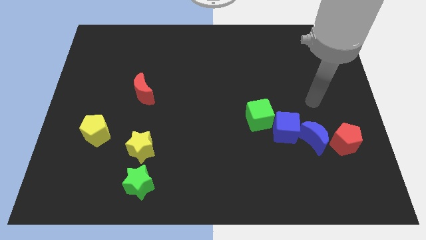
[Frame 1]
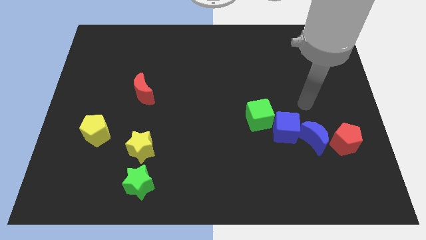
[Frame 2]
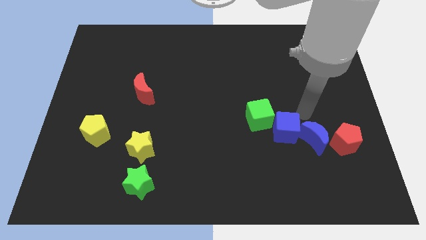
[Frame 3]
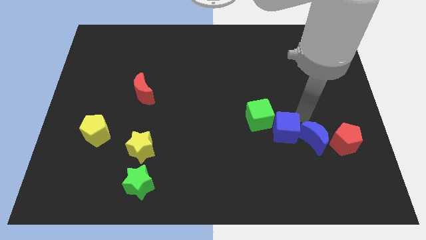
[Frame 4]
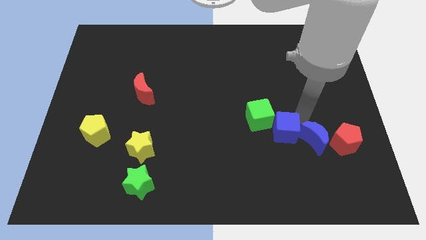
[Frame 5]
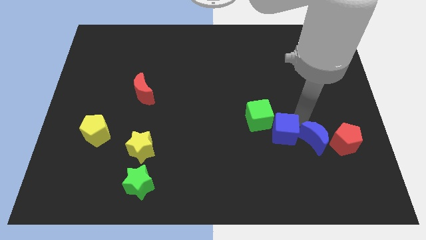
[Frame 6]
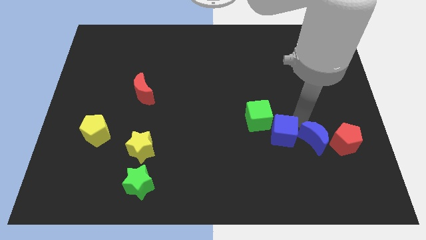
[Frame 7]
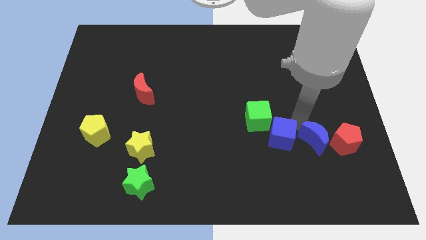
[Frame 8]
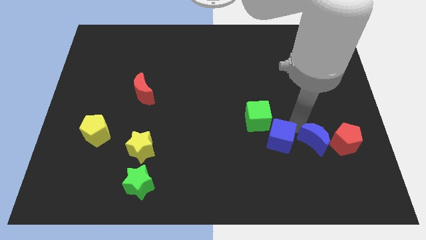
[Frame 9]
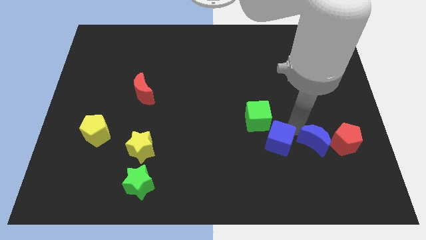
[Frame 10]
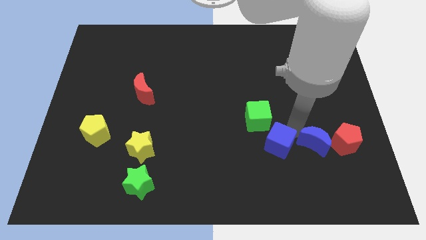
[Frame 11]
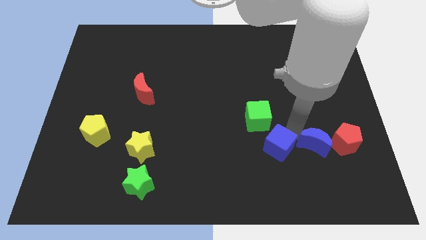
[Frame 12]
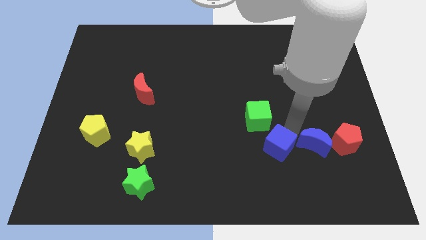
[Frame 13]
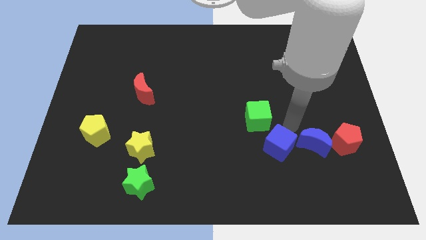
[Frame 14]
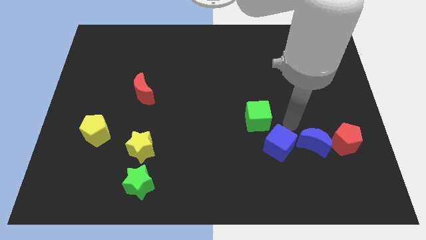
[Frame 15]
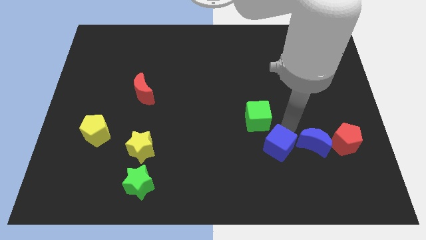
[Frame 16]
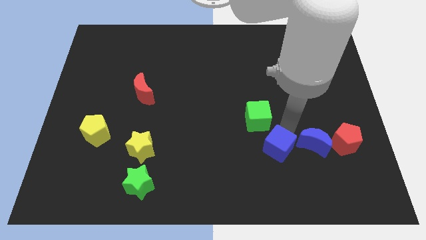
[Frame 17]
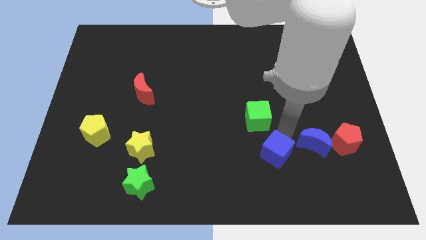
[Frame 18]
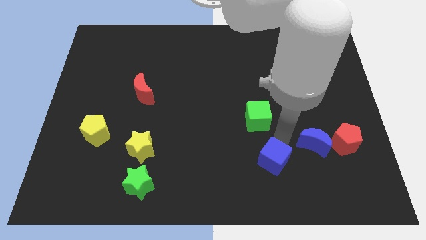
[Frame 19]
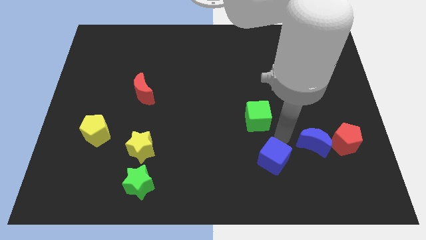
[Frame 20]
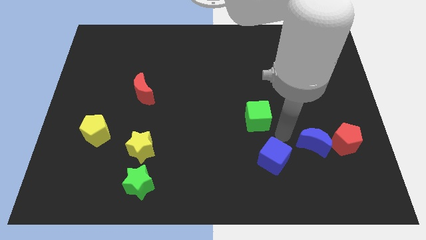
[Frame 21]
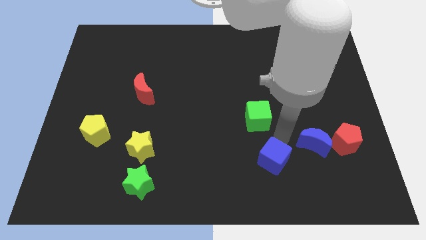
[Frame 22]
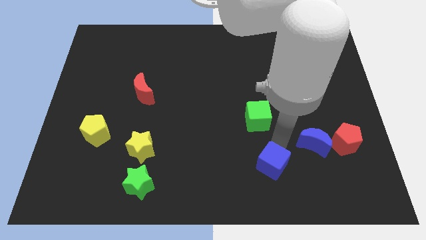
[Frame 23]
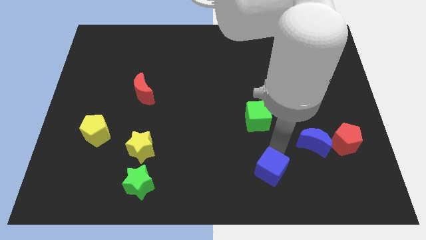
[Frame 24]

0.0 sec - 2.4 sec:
move the blue cube away from the blue moon and green cube

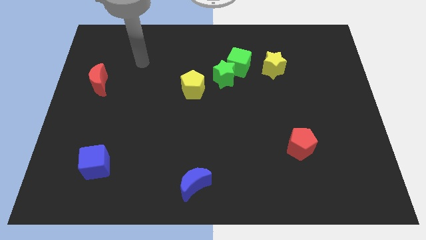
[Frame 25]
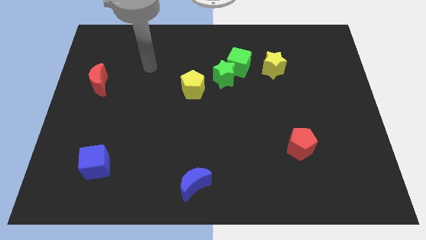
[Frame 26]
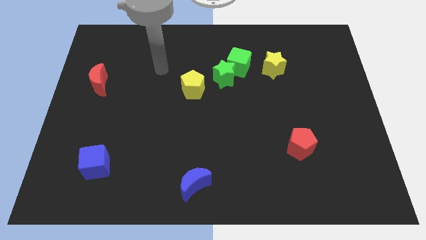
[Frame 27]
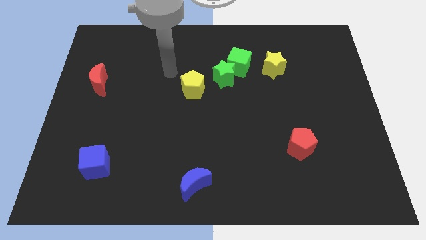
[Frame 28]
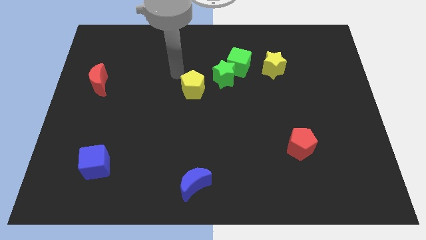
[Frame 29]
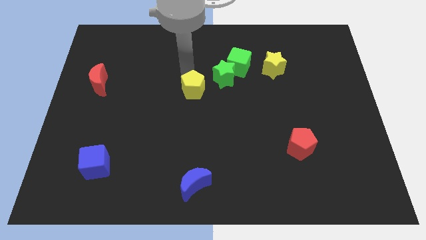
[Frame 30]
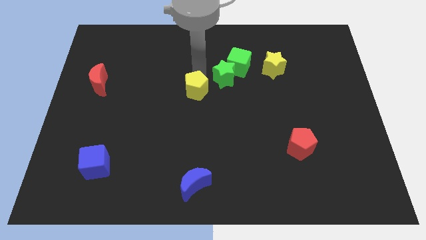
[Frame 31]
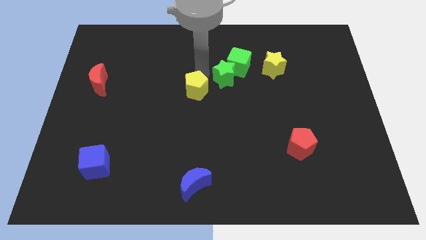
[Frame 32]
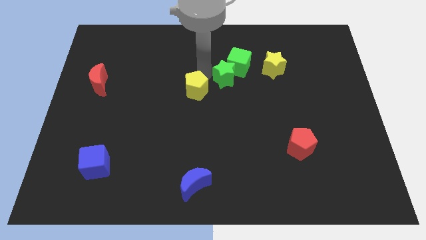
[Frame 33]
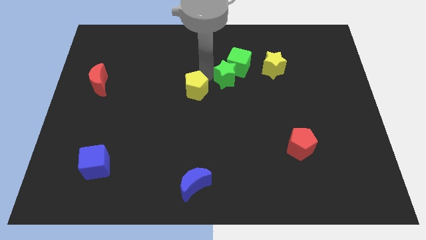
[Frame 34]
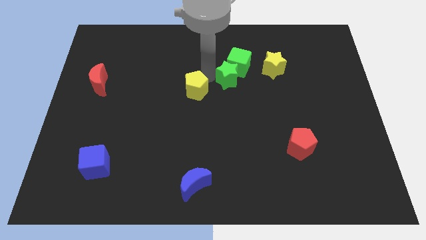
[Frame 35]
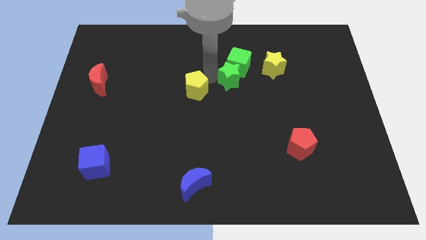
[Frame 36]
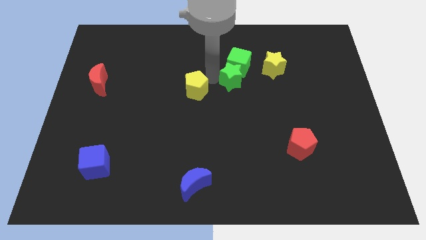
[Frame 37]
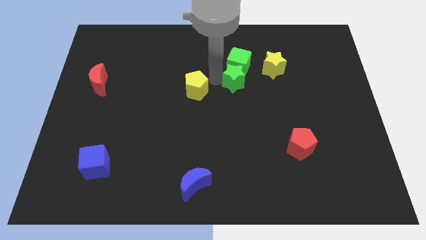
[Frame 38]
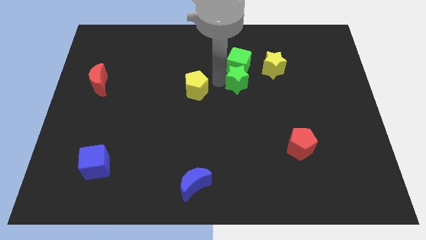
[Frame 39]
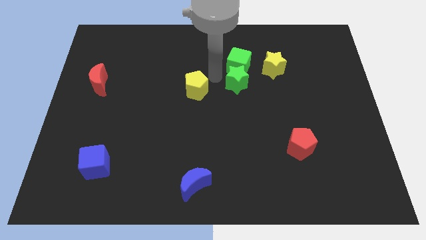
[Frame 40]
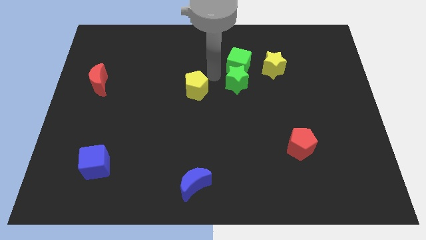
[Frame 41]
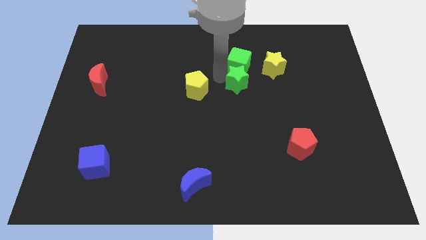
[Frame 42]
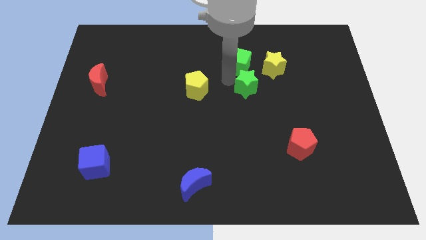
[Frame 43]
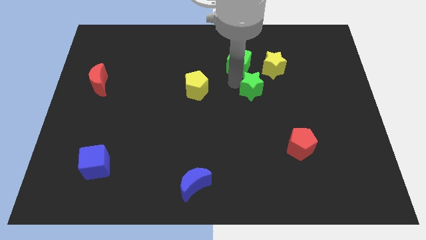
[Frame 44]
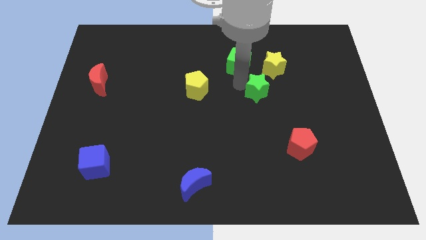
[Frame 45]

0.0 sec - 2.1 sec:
move the green star away from the green cube and yellow pentagon

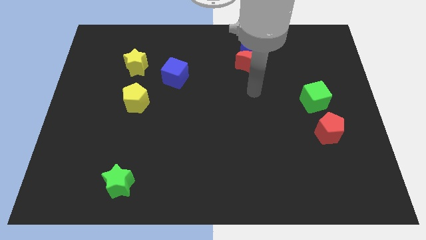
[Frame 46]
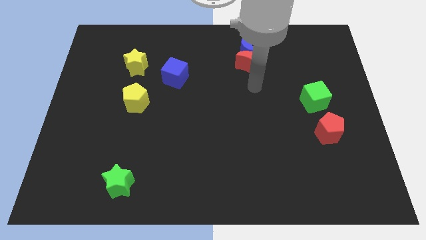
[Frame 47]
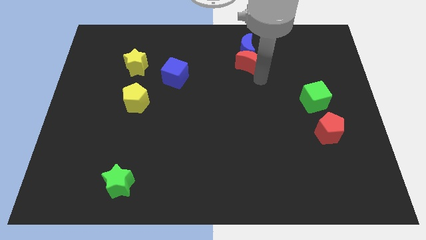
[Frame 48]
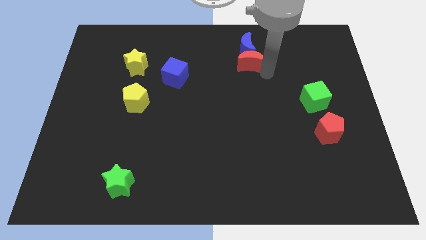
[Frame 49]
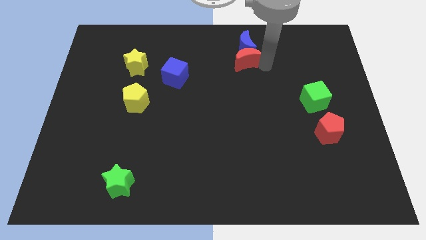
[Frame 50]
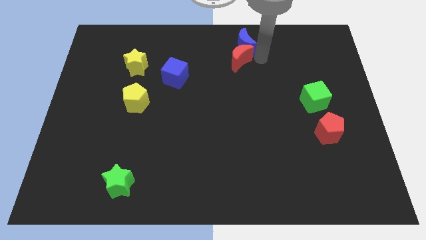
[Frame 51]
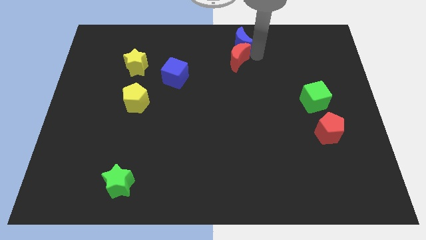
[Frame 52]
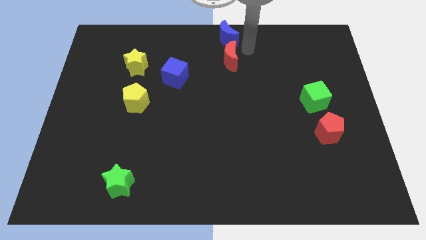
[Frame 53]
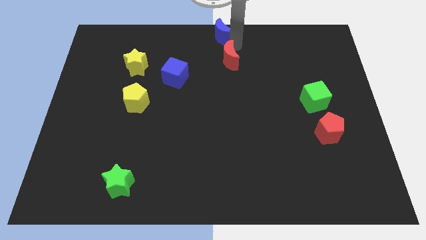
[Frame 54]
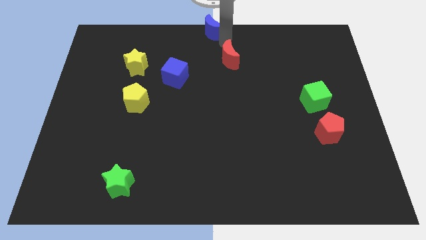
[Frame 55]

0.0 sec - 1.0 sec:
pull the red moon apart from the blue moon

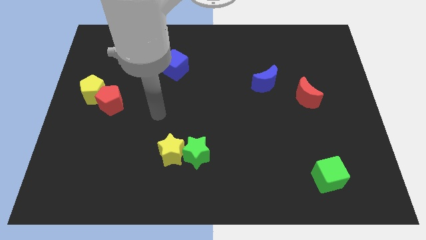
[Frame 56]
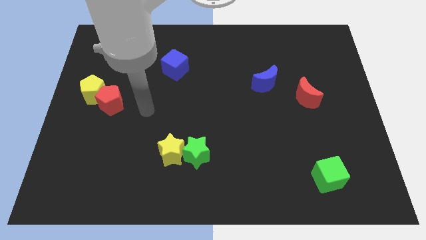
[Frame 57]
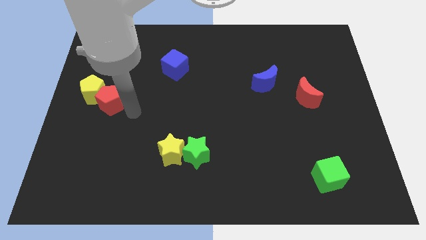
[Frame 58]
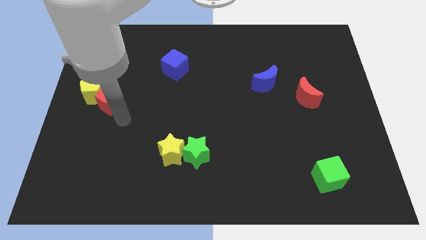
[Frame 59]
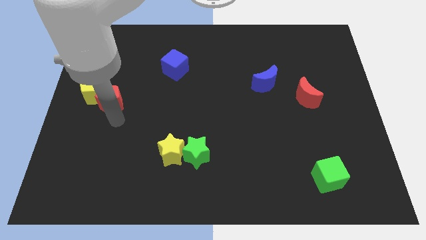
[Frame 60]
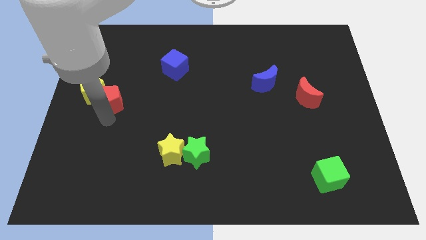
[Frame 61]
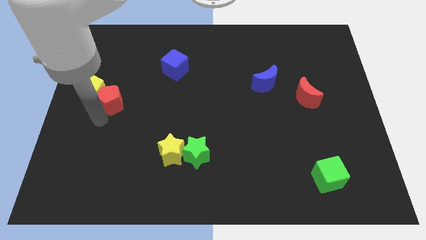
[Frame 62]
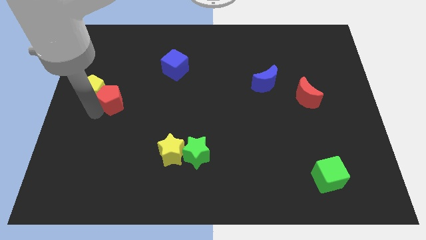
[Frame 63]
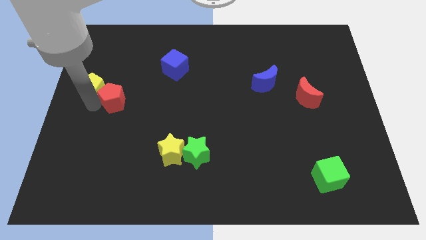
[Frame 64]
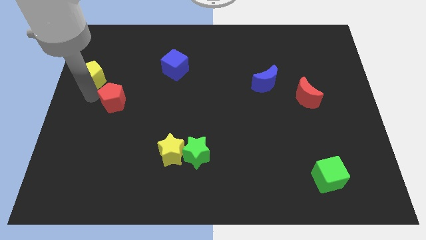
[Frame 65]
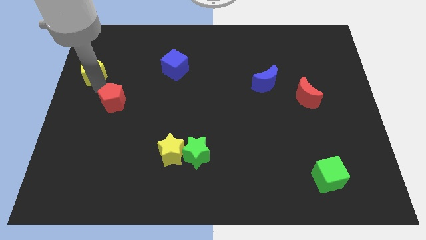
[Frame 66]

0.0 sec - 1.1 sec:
separate the red pentagon from the yellow pentagon

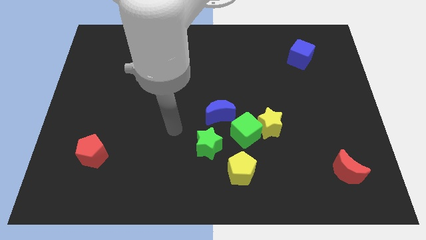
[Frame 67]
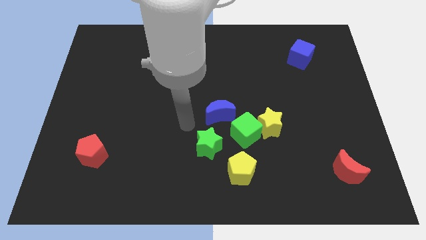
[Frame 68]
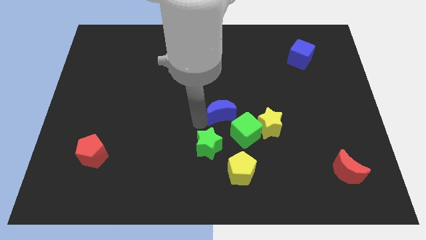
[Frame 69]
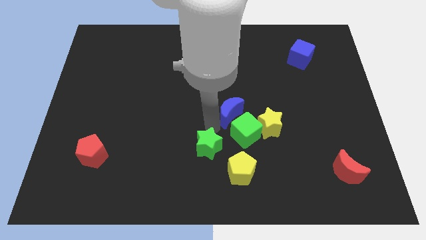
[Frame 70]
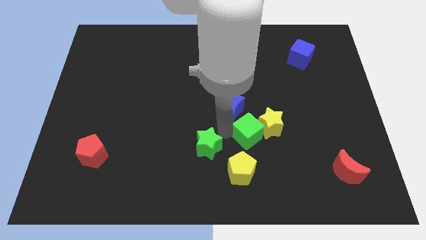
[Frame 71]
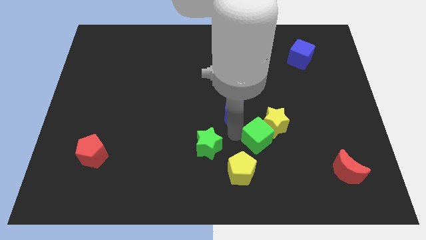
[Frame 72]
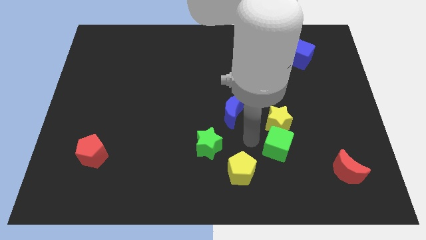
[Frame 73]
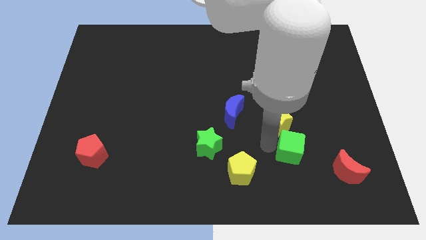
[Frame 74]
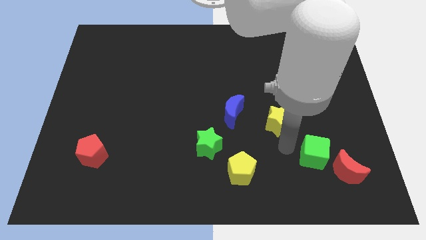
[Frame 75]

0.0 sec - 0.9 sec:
pull the yellow star apart from the green cube

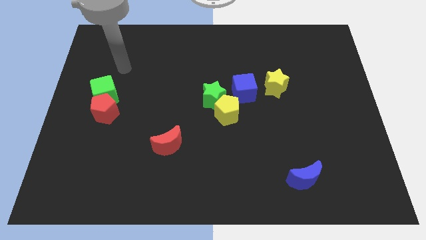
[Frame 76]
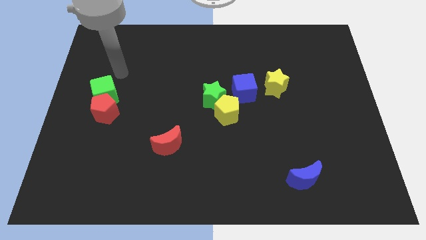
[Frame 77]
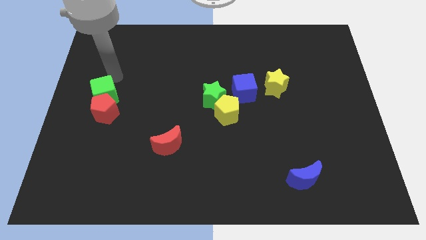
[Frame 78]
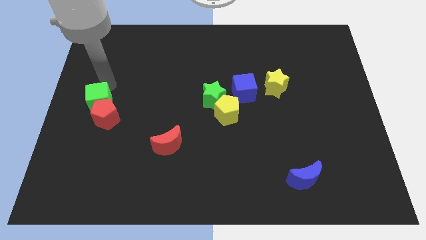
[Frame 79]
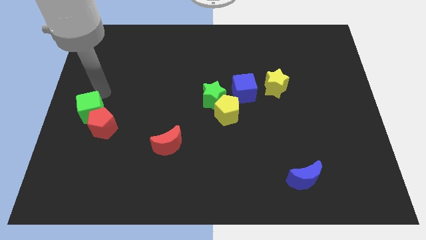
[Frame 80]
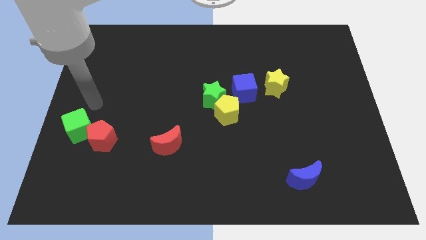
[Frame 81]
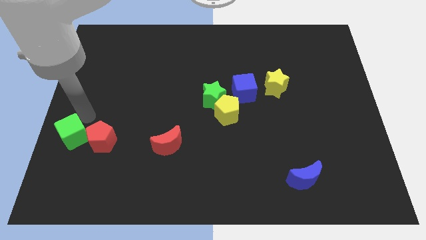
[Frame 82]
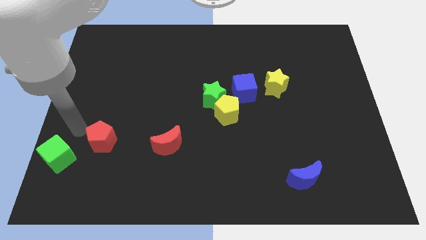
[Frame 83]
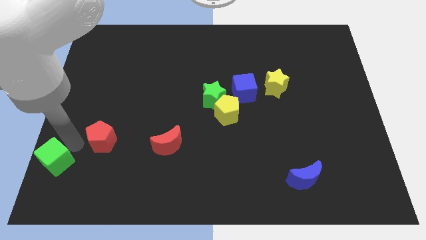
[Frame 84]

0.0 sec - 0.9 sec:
move the red pentagon away from the green cube

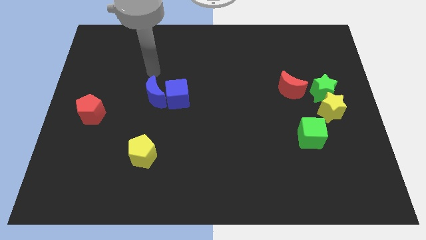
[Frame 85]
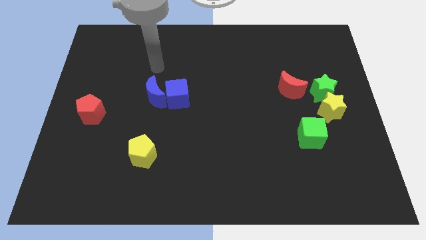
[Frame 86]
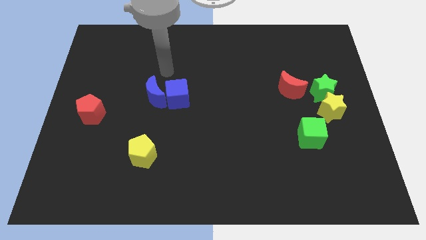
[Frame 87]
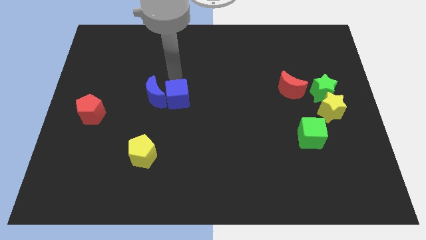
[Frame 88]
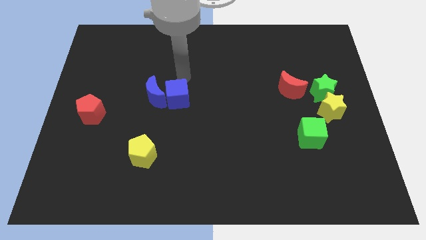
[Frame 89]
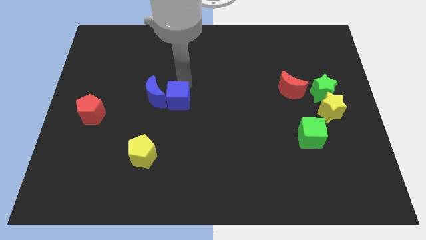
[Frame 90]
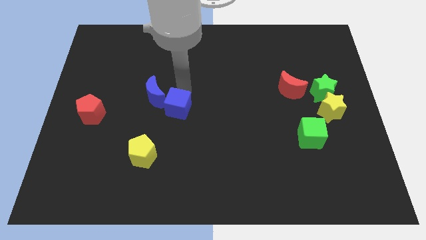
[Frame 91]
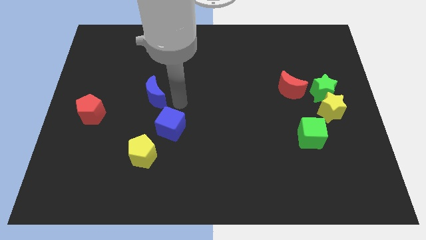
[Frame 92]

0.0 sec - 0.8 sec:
pull the blue moon apart from the blue cube

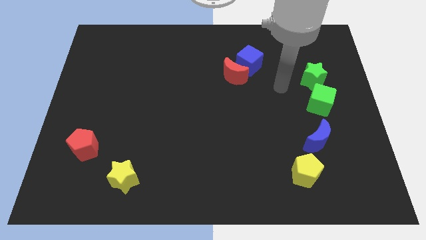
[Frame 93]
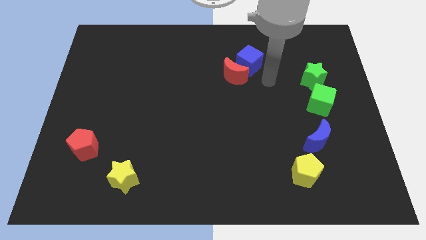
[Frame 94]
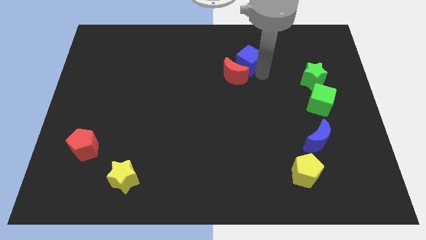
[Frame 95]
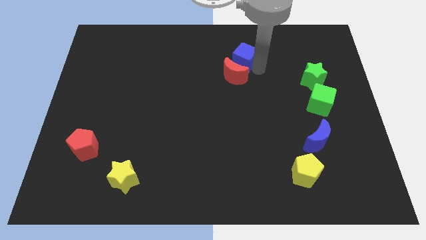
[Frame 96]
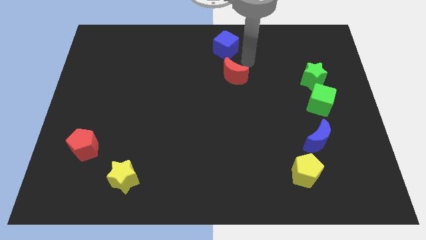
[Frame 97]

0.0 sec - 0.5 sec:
separate the red moon from the blue cube
